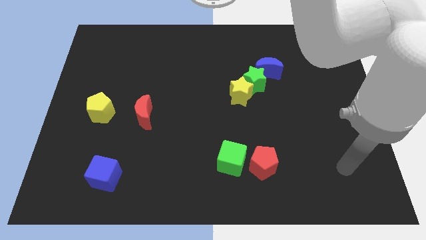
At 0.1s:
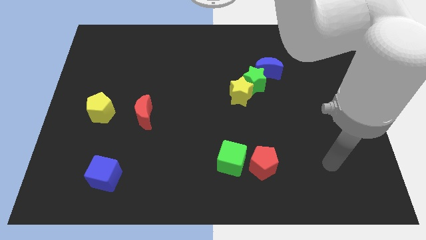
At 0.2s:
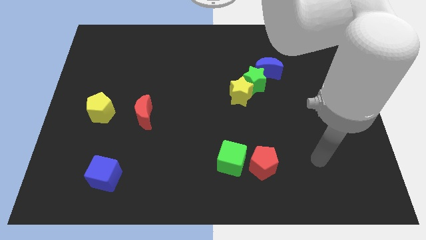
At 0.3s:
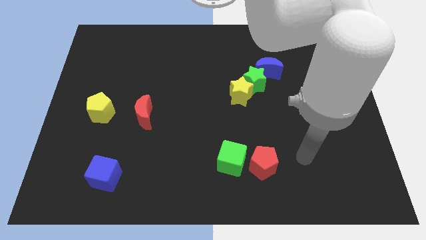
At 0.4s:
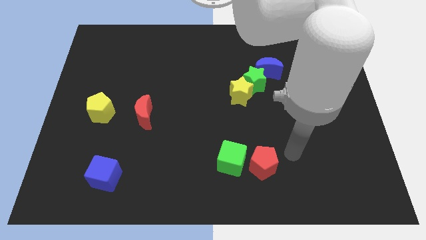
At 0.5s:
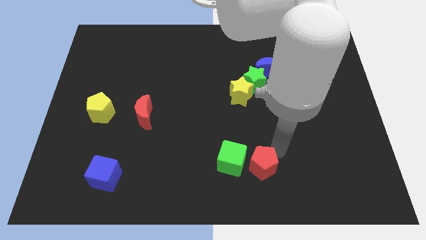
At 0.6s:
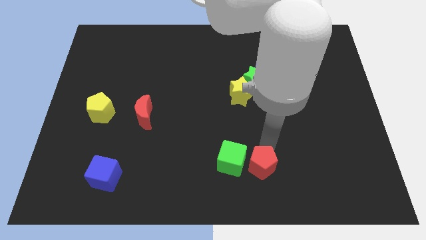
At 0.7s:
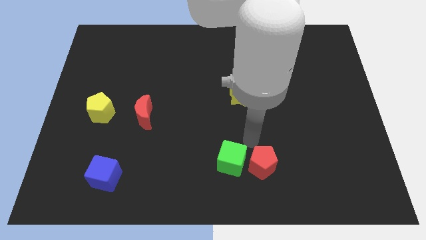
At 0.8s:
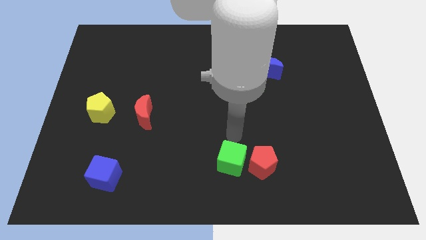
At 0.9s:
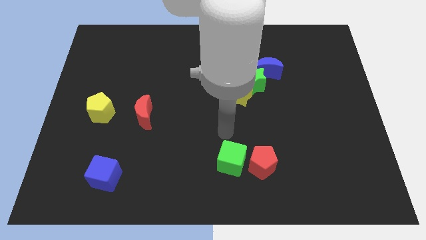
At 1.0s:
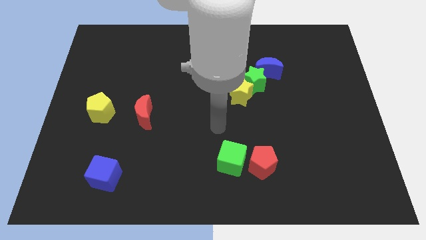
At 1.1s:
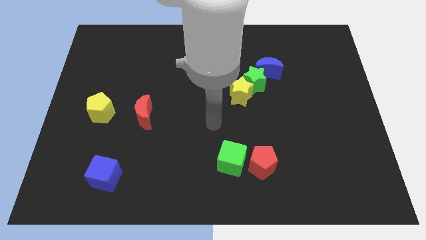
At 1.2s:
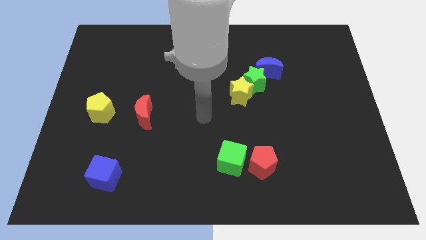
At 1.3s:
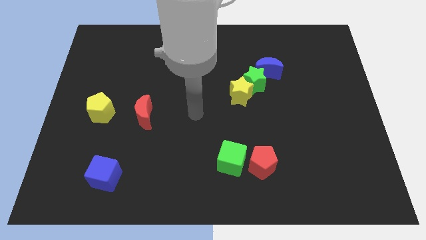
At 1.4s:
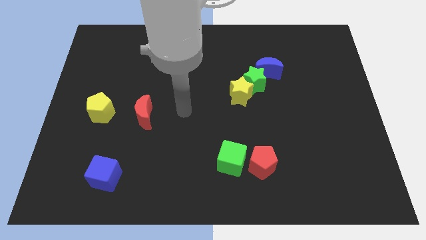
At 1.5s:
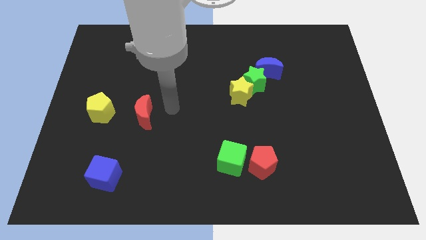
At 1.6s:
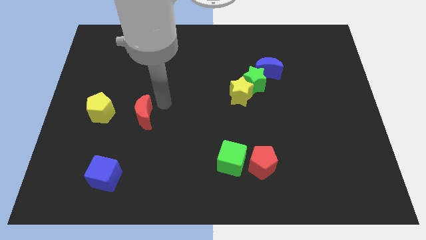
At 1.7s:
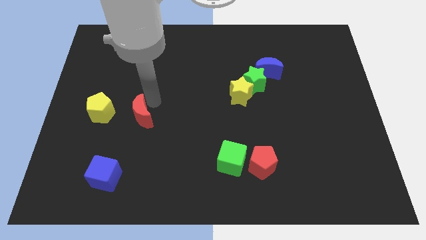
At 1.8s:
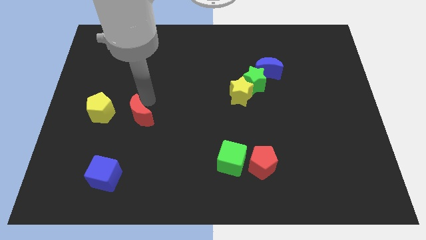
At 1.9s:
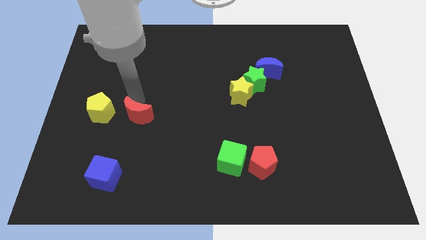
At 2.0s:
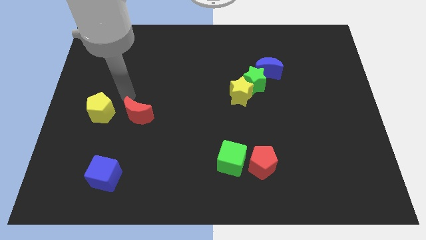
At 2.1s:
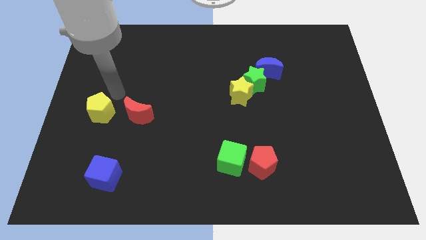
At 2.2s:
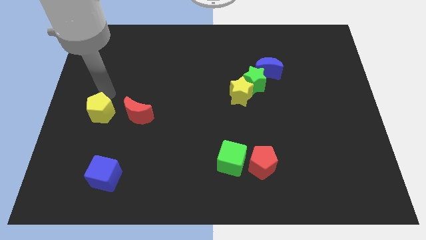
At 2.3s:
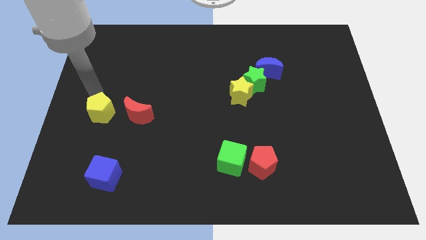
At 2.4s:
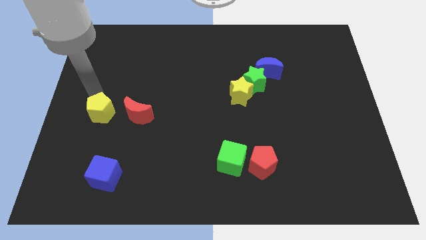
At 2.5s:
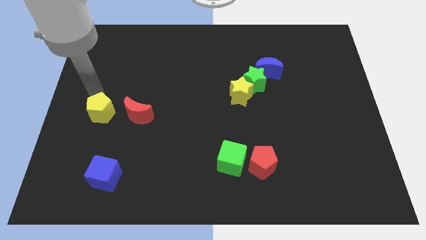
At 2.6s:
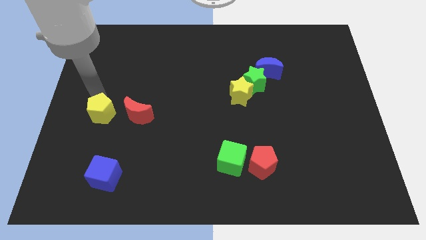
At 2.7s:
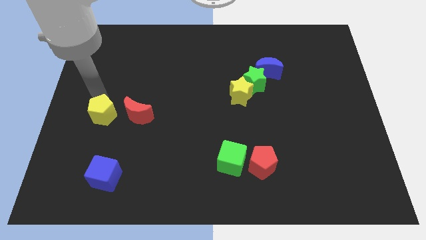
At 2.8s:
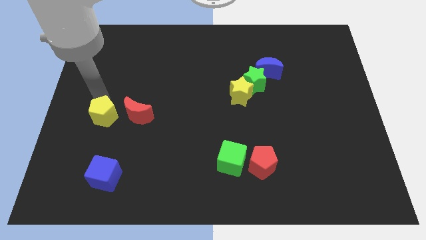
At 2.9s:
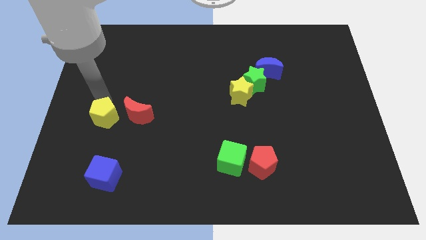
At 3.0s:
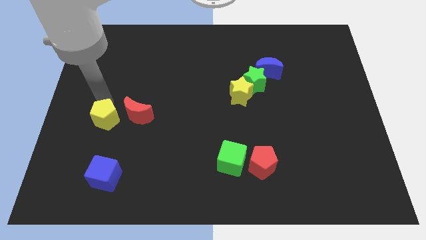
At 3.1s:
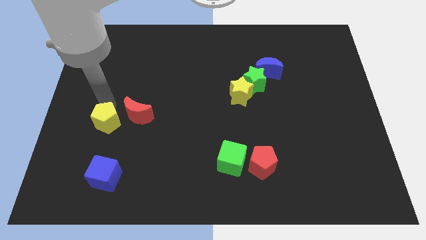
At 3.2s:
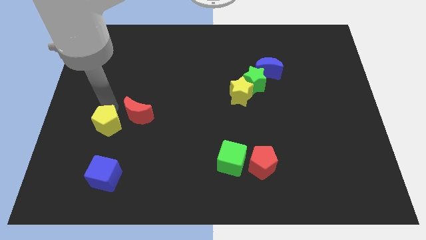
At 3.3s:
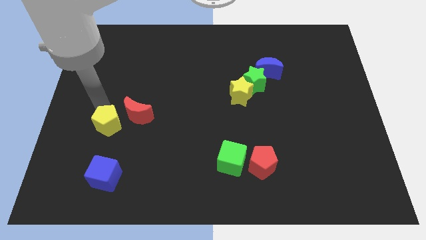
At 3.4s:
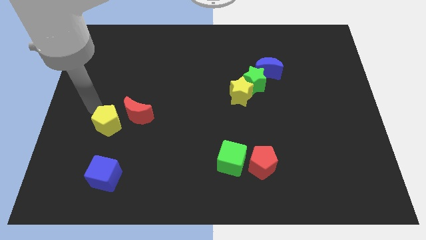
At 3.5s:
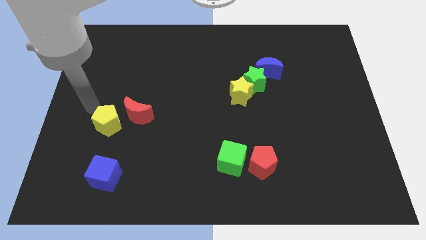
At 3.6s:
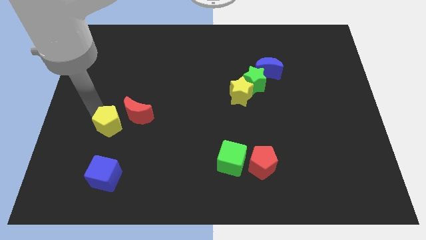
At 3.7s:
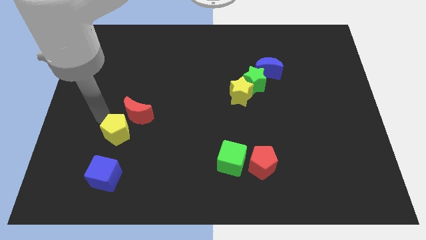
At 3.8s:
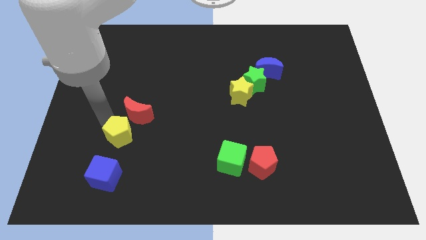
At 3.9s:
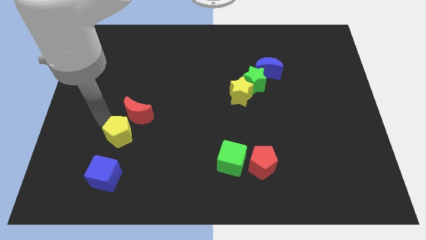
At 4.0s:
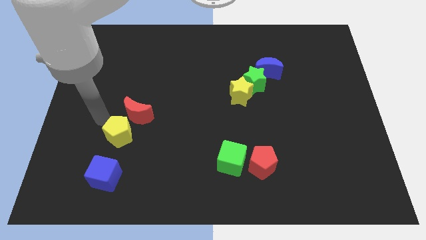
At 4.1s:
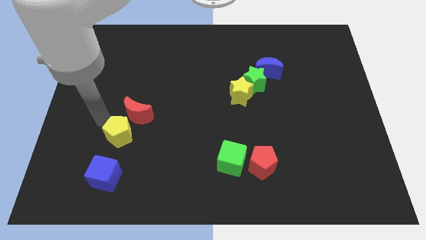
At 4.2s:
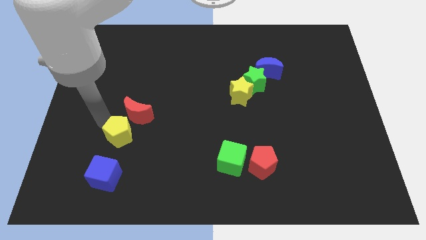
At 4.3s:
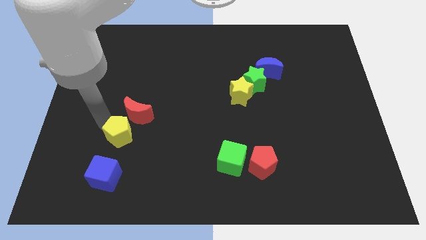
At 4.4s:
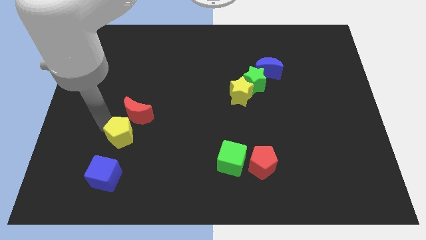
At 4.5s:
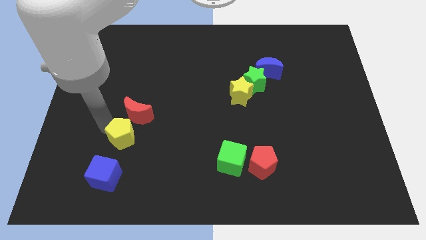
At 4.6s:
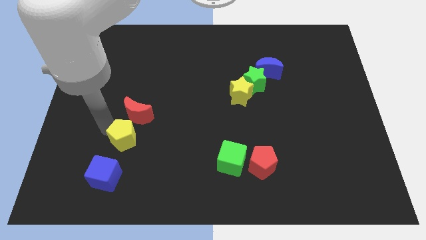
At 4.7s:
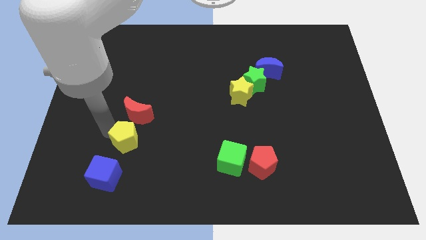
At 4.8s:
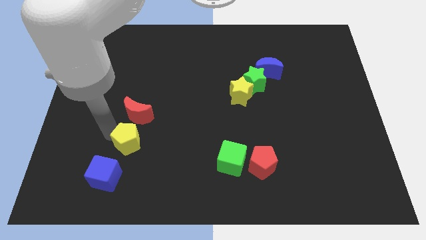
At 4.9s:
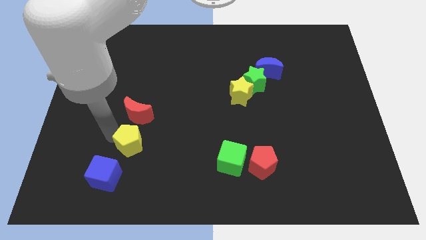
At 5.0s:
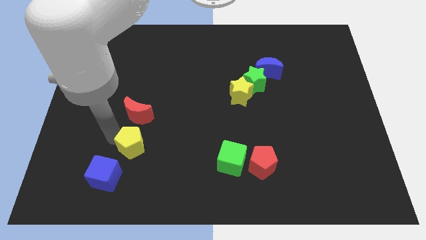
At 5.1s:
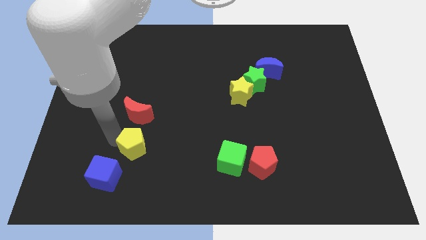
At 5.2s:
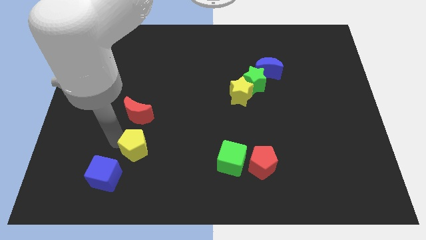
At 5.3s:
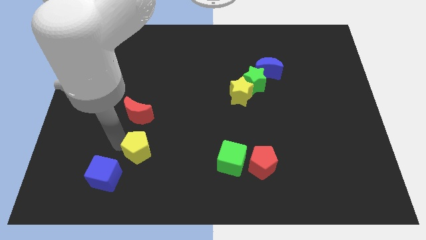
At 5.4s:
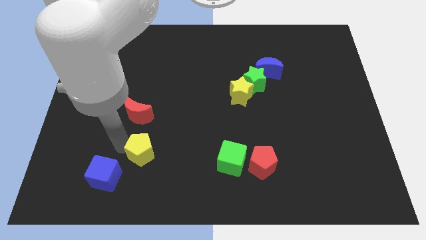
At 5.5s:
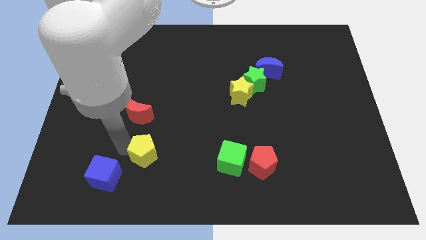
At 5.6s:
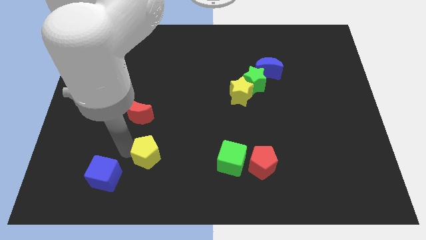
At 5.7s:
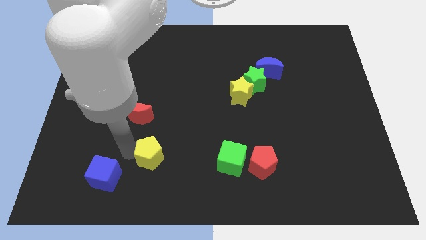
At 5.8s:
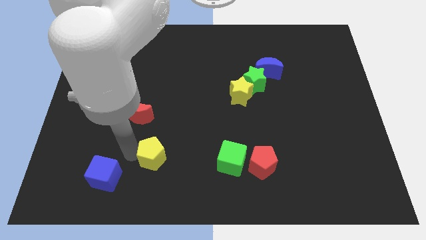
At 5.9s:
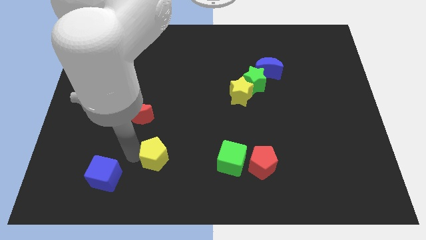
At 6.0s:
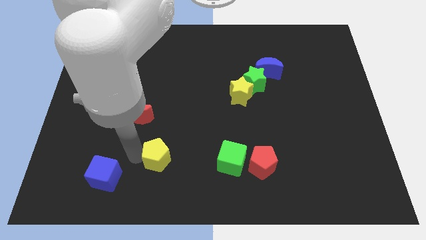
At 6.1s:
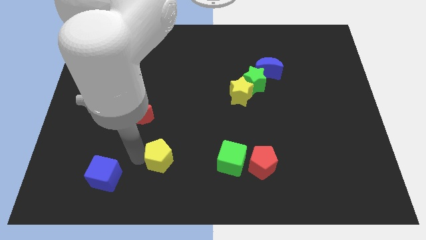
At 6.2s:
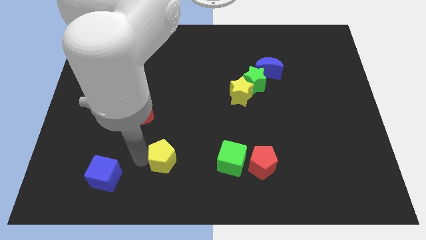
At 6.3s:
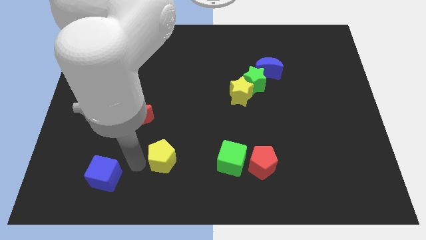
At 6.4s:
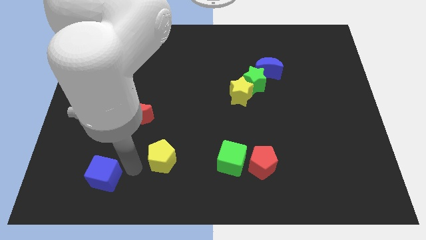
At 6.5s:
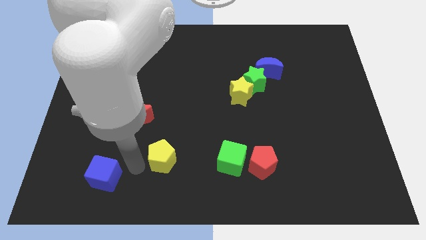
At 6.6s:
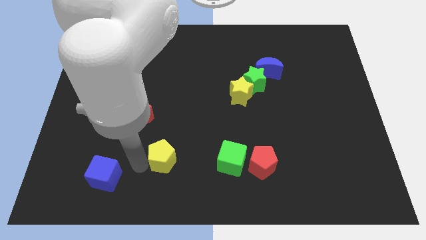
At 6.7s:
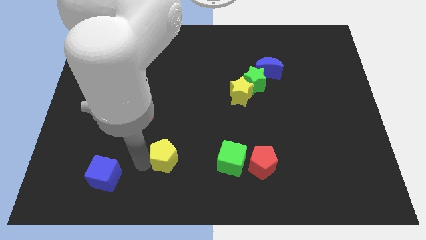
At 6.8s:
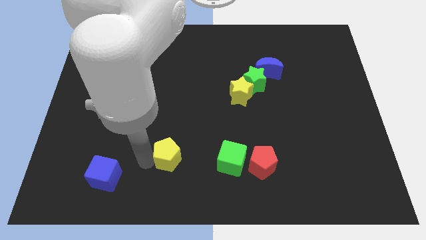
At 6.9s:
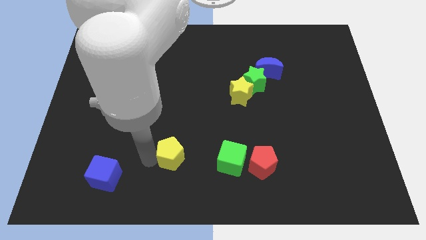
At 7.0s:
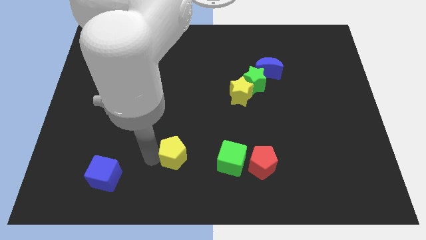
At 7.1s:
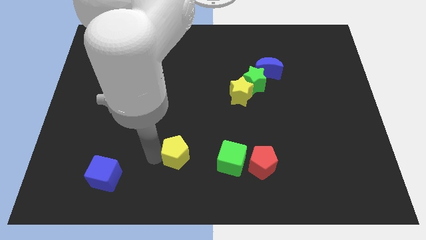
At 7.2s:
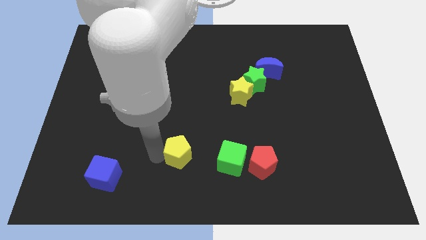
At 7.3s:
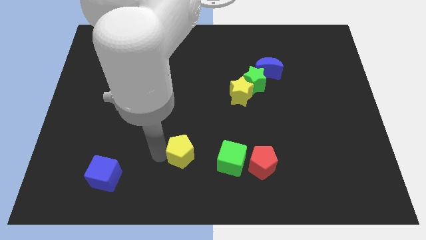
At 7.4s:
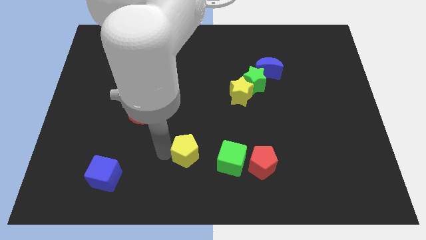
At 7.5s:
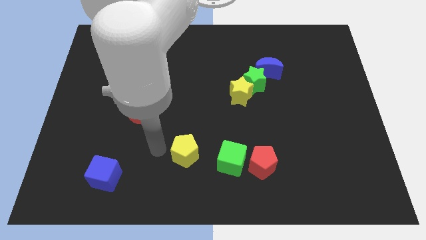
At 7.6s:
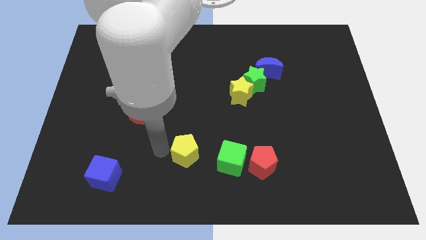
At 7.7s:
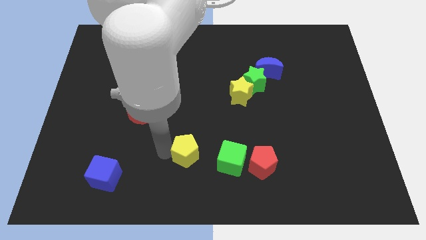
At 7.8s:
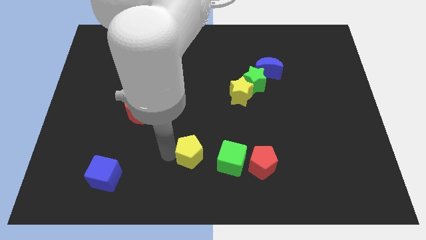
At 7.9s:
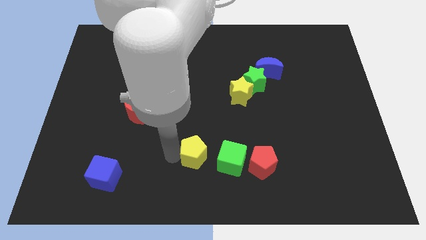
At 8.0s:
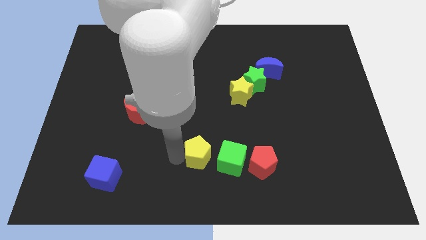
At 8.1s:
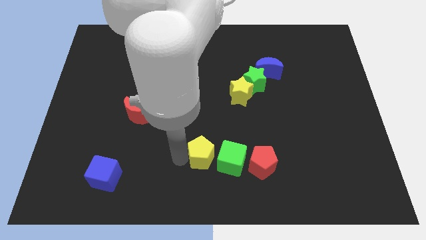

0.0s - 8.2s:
slide the yellow pentagon towards the green cube
